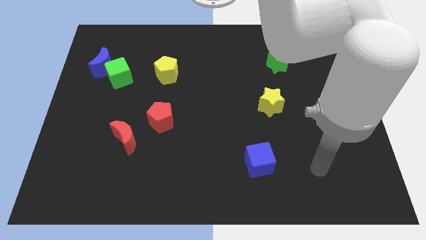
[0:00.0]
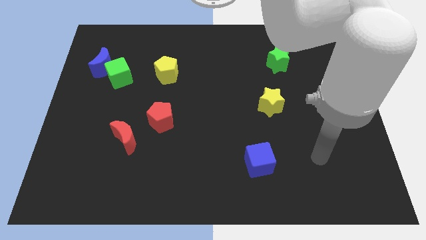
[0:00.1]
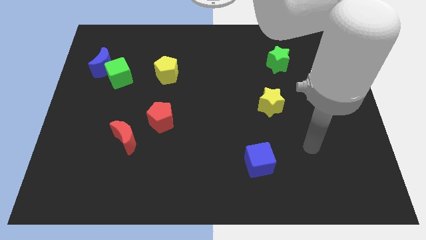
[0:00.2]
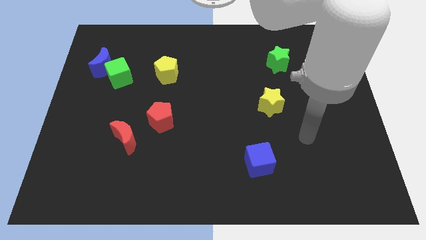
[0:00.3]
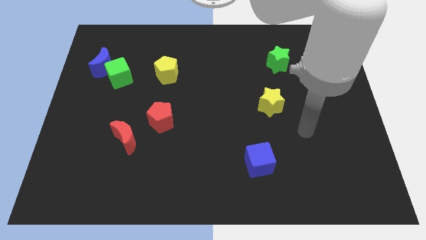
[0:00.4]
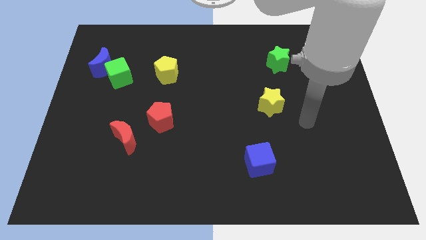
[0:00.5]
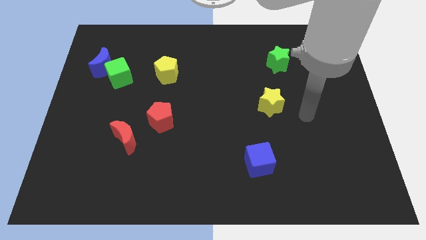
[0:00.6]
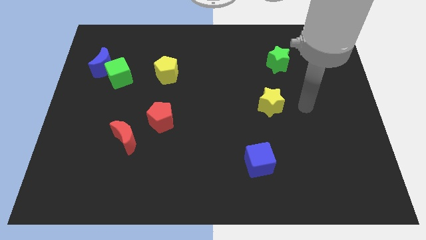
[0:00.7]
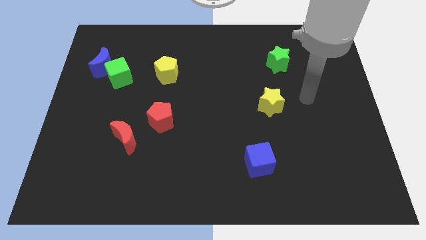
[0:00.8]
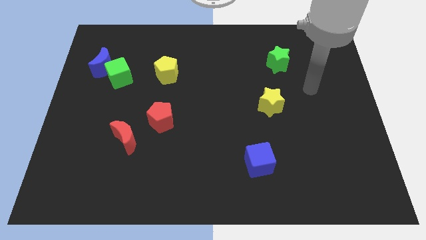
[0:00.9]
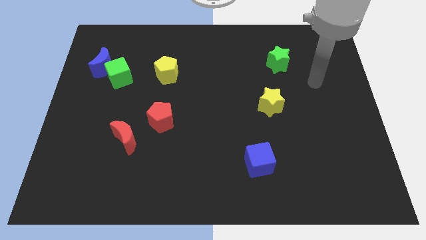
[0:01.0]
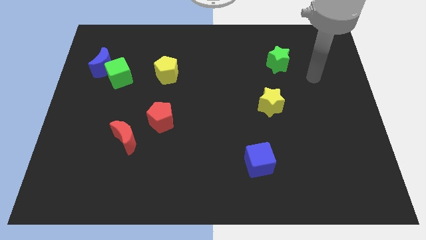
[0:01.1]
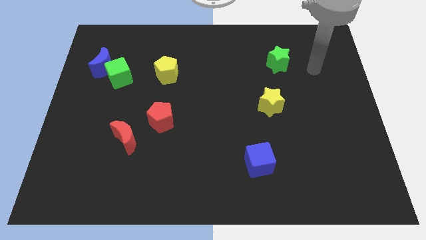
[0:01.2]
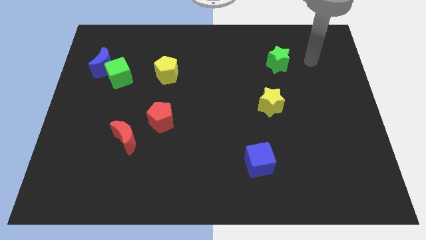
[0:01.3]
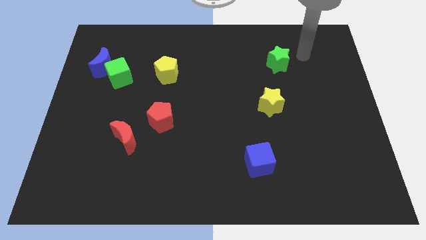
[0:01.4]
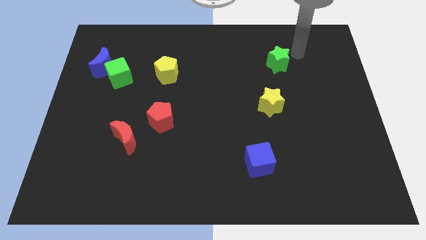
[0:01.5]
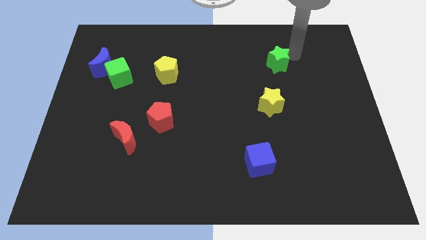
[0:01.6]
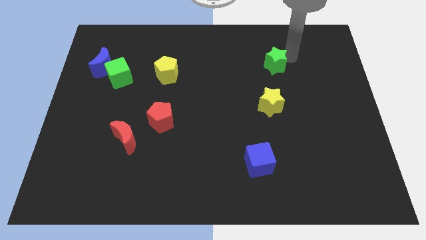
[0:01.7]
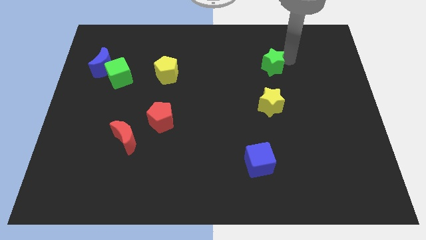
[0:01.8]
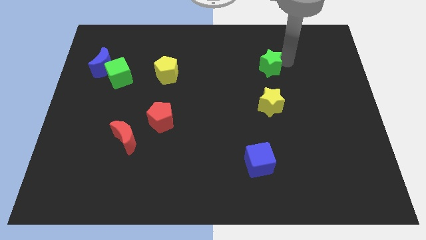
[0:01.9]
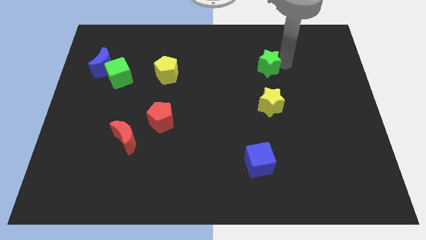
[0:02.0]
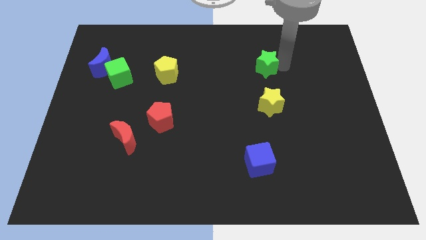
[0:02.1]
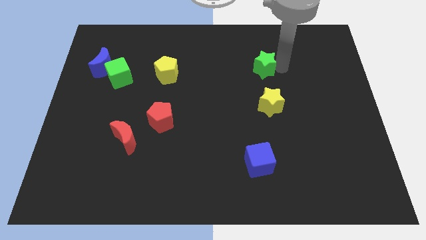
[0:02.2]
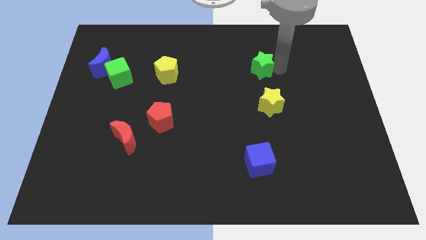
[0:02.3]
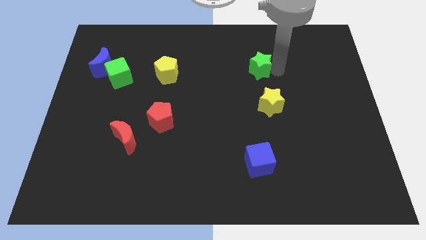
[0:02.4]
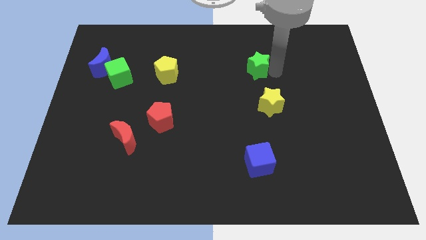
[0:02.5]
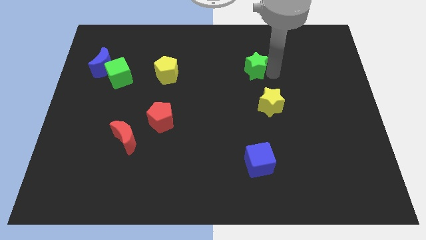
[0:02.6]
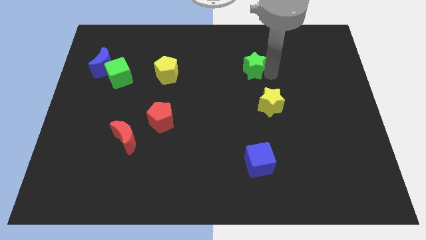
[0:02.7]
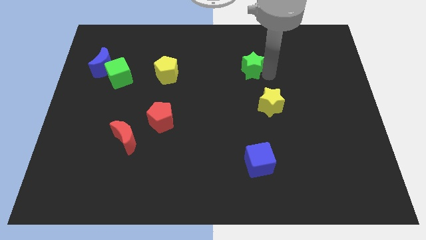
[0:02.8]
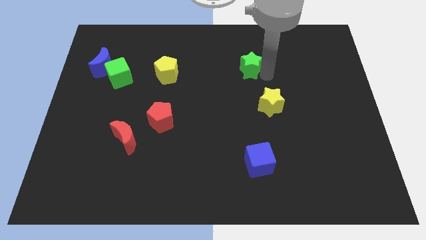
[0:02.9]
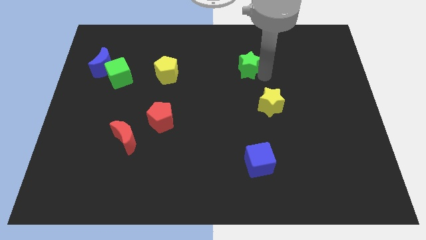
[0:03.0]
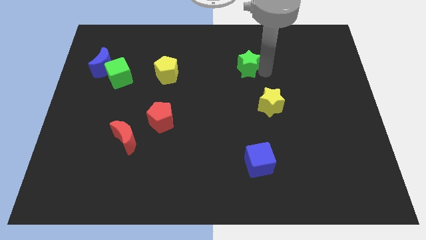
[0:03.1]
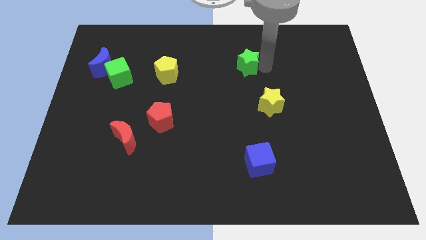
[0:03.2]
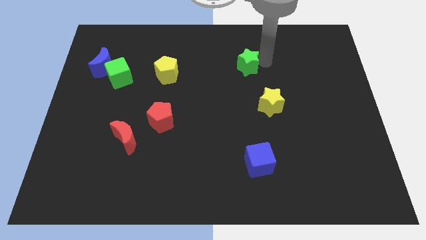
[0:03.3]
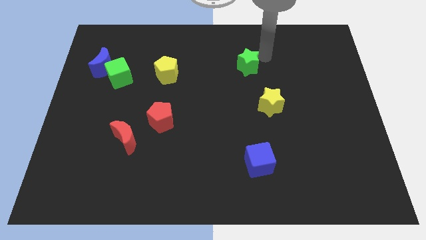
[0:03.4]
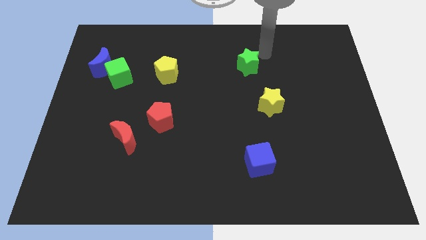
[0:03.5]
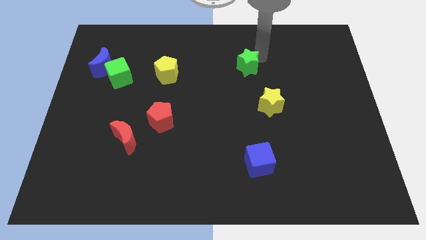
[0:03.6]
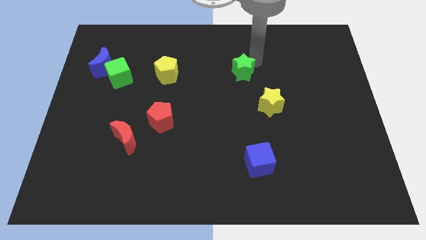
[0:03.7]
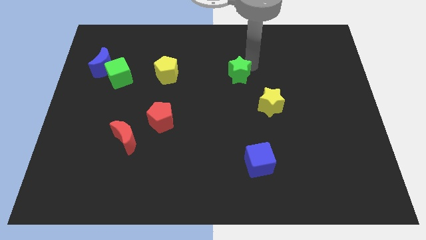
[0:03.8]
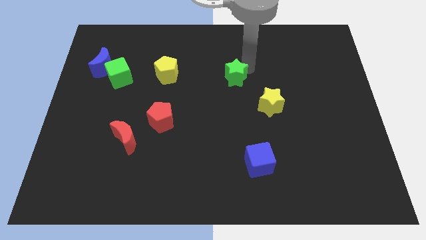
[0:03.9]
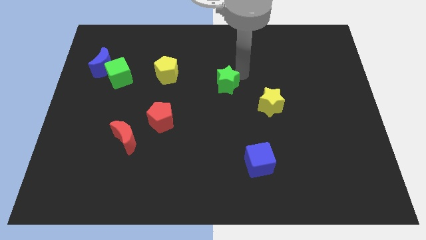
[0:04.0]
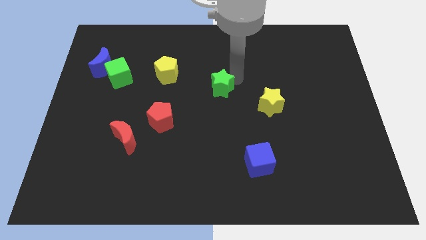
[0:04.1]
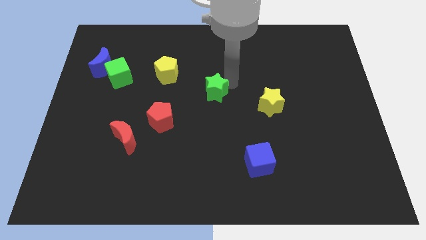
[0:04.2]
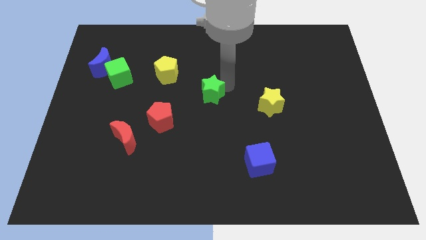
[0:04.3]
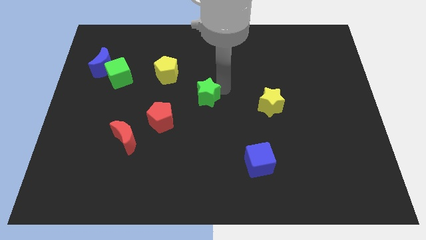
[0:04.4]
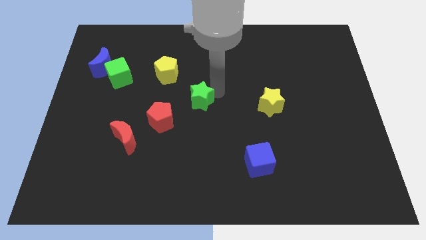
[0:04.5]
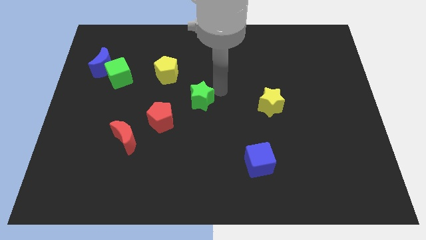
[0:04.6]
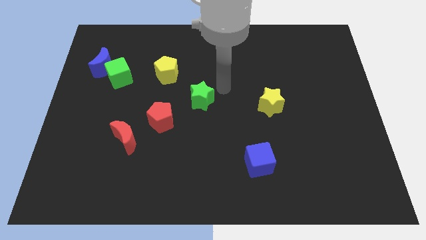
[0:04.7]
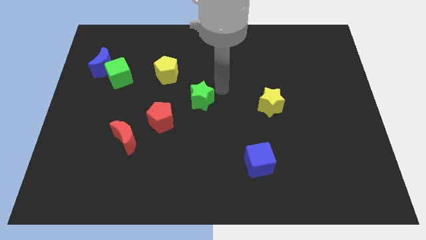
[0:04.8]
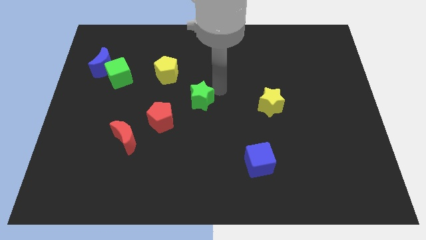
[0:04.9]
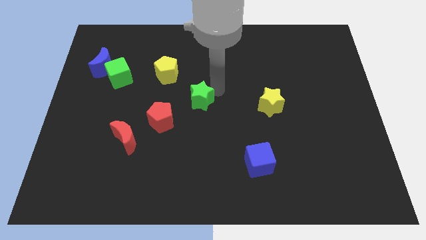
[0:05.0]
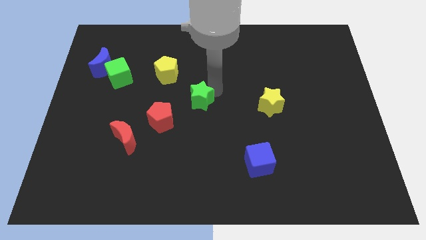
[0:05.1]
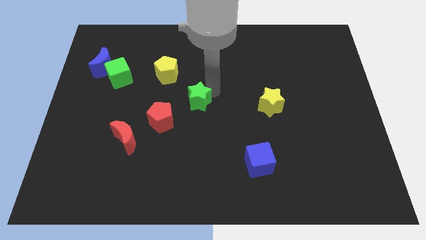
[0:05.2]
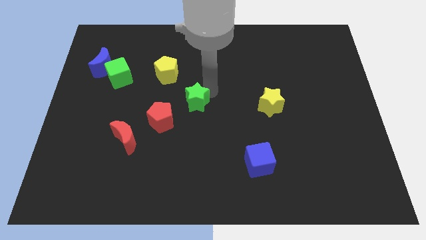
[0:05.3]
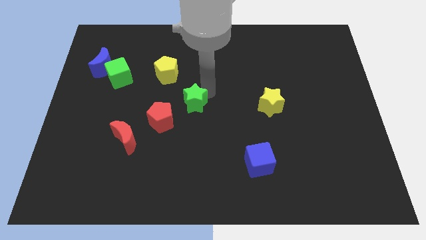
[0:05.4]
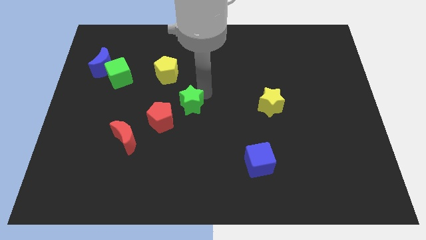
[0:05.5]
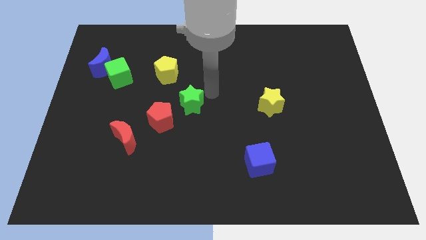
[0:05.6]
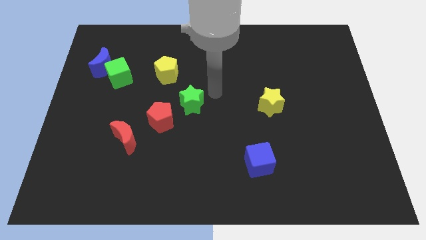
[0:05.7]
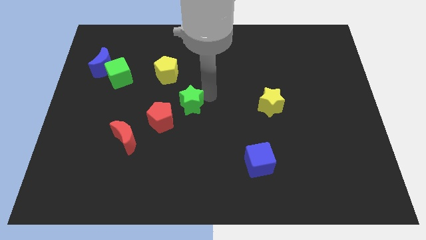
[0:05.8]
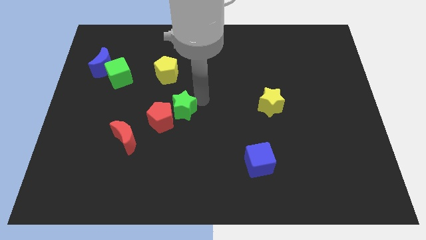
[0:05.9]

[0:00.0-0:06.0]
put the green star to the red pentagon
